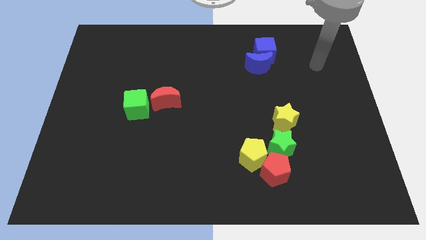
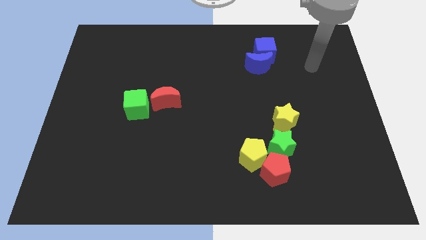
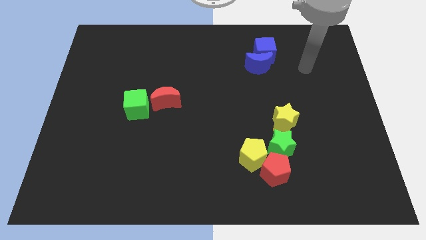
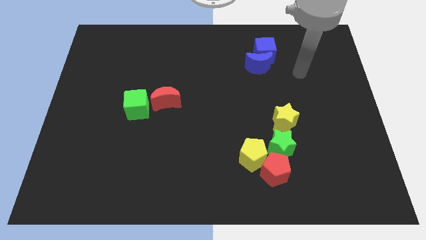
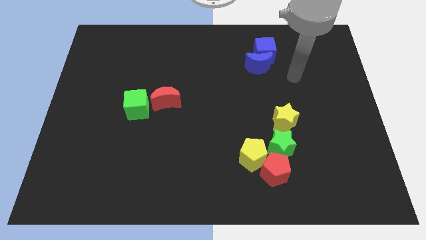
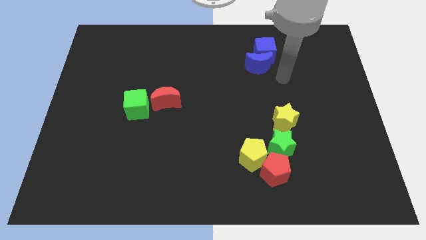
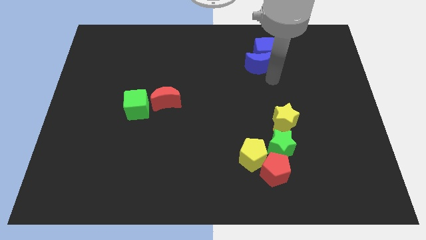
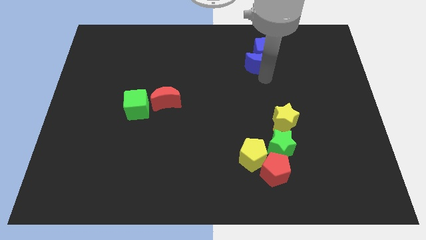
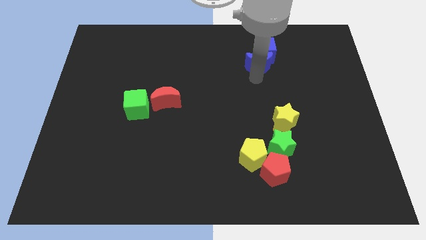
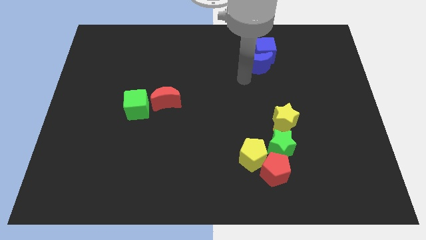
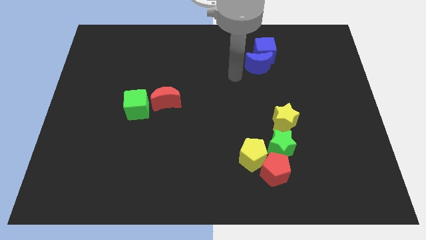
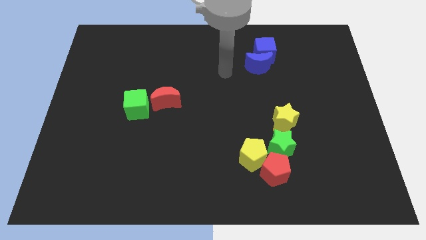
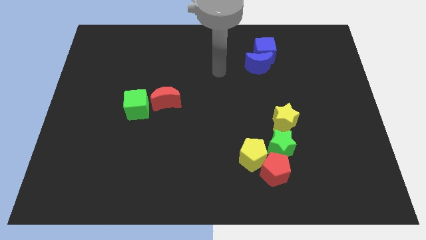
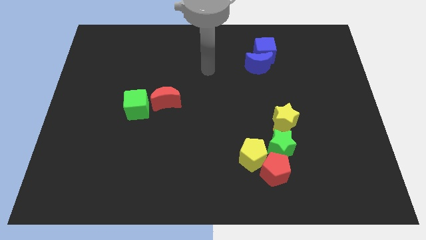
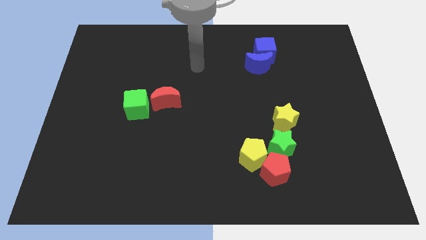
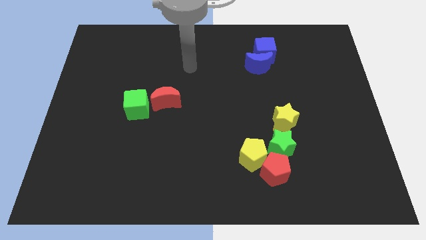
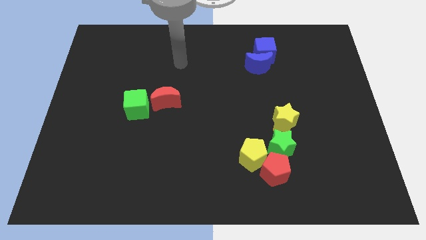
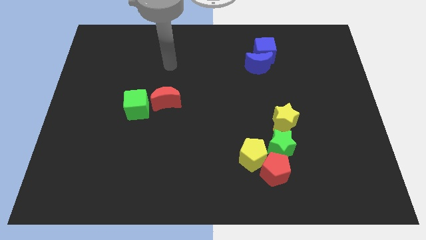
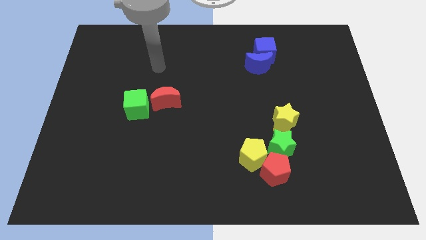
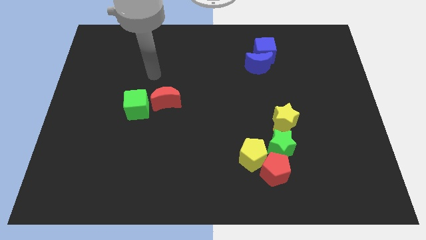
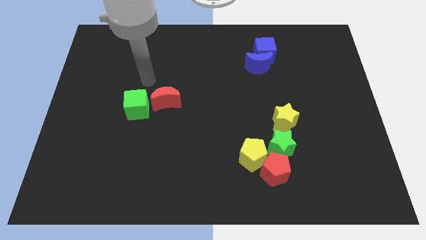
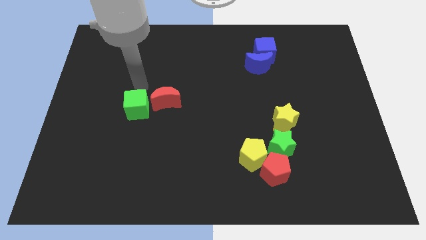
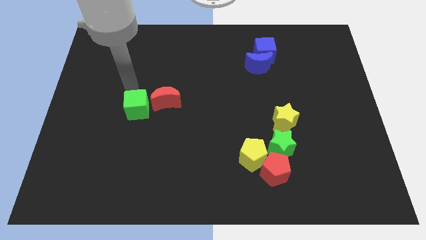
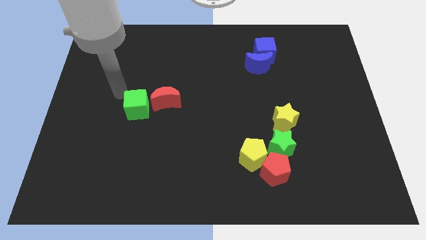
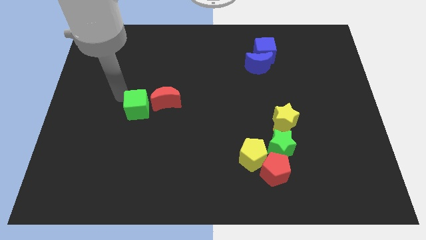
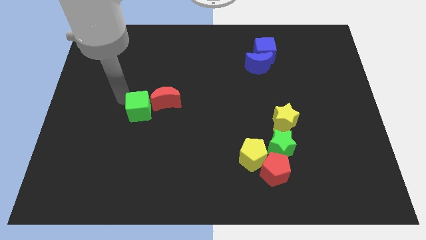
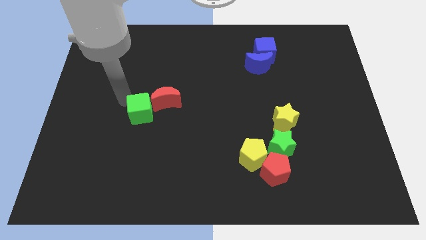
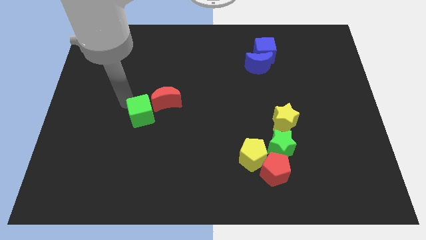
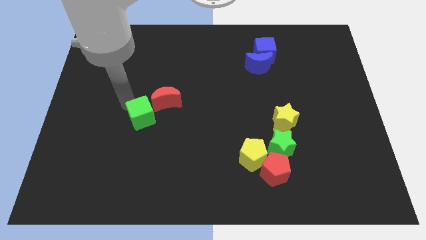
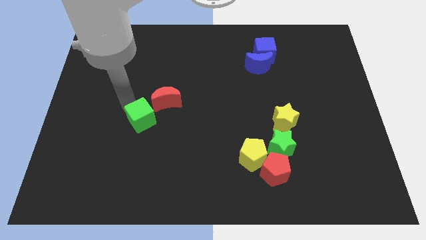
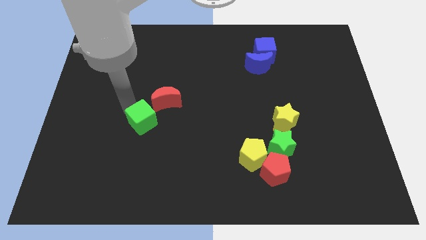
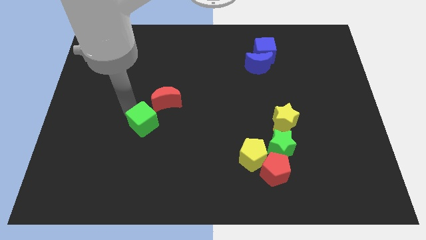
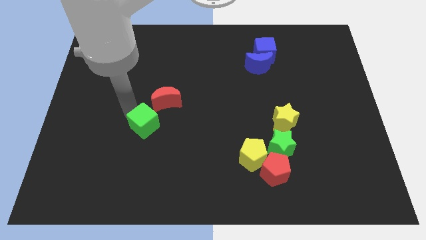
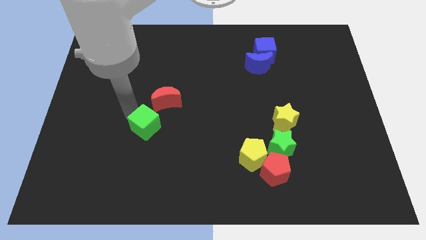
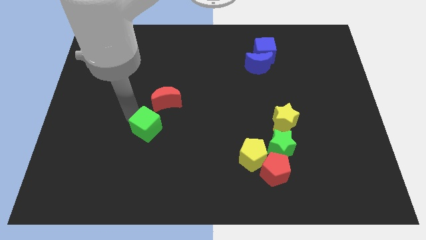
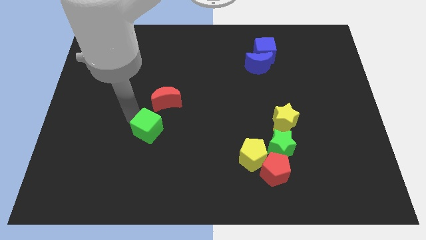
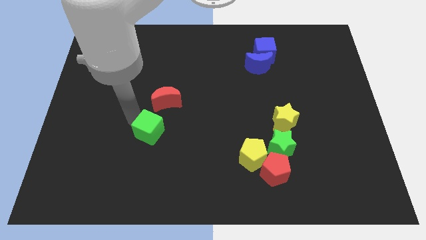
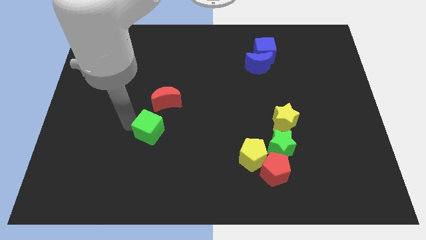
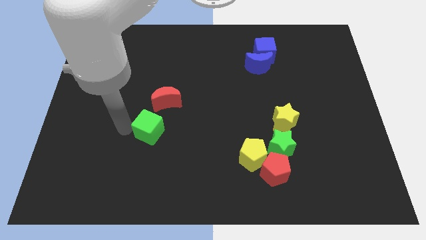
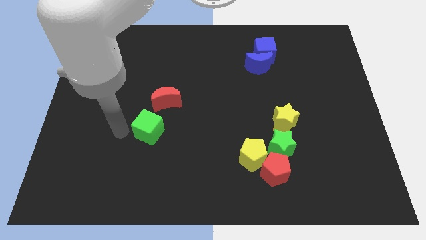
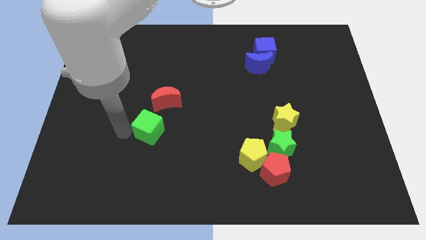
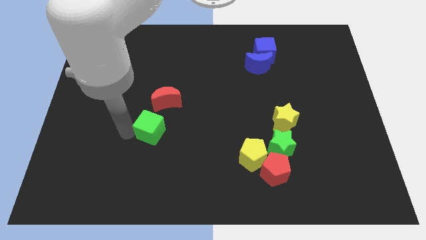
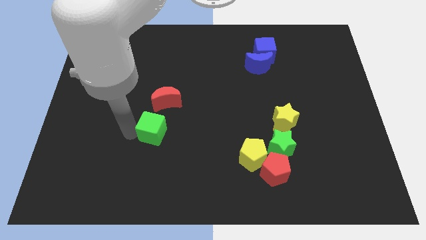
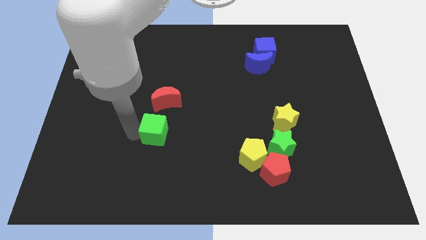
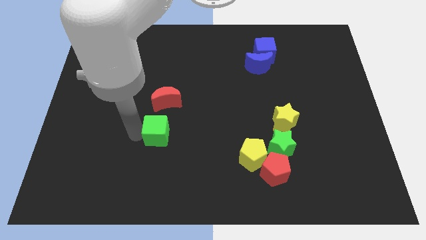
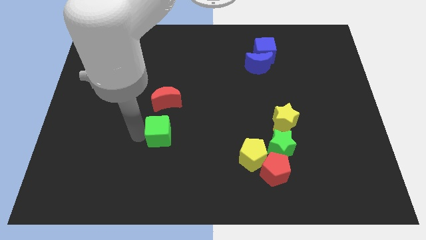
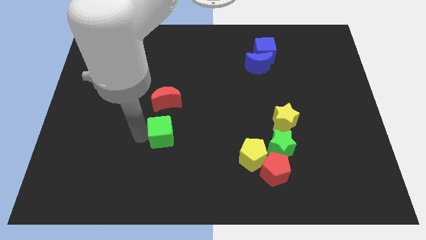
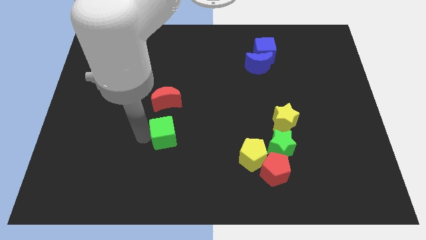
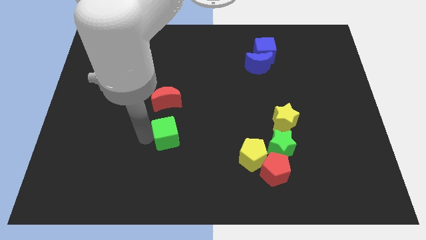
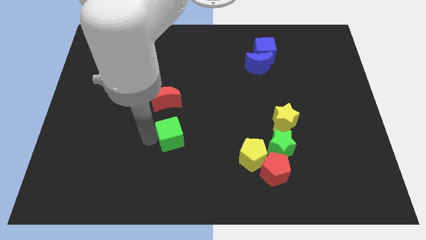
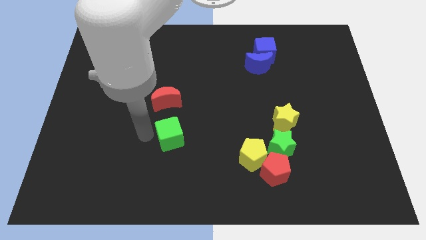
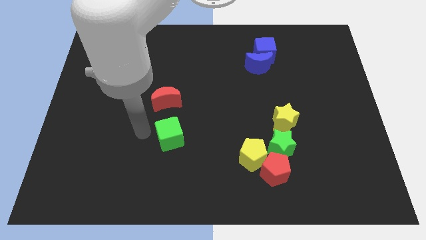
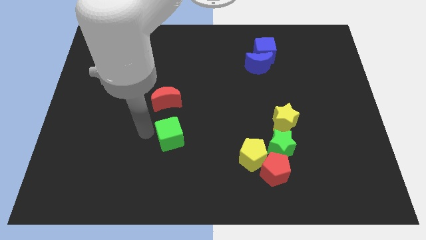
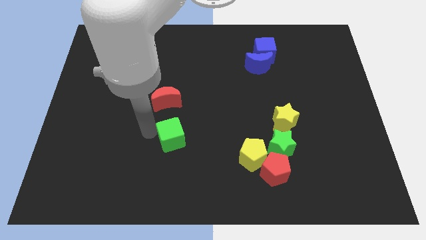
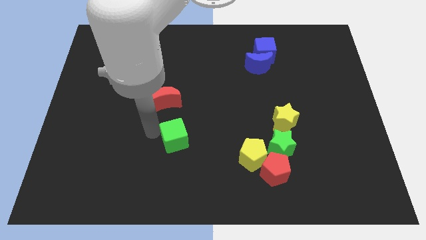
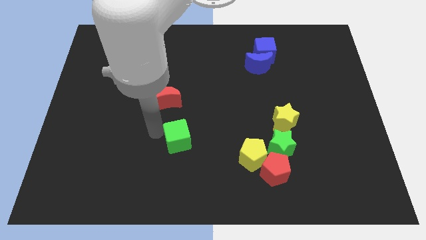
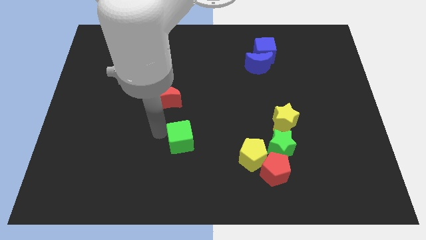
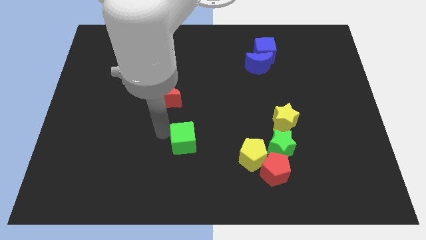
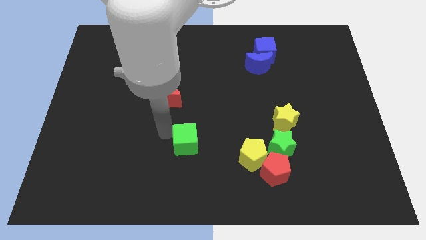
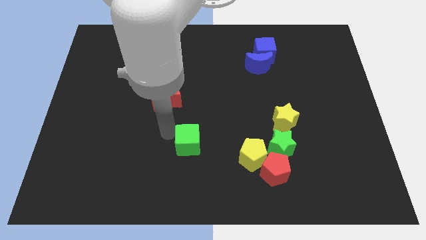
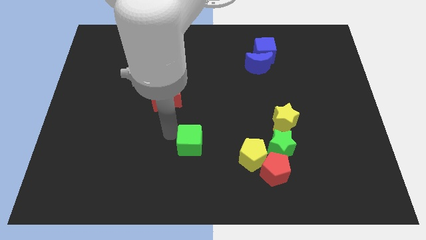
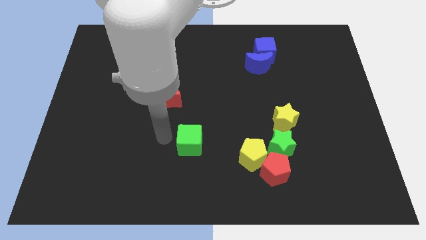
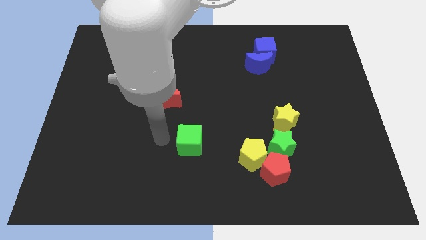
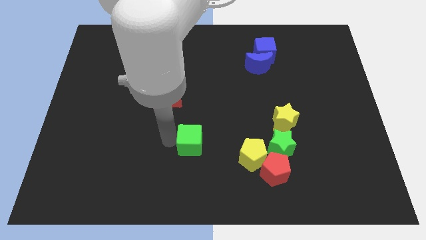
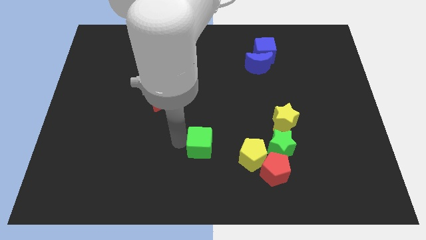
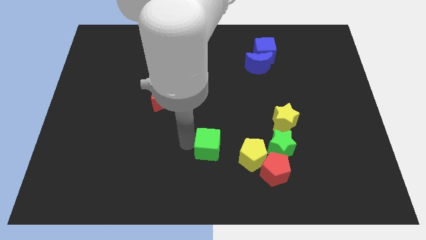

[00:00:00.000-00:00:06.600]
push the green cube to the left side of the green star
